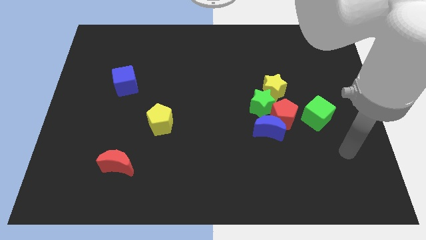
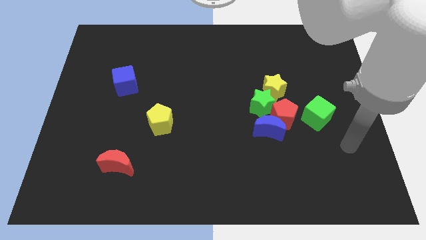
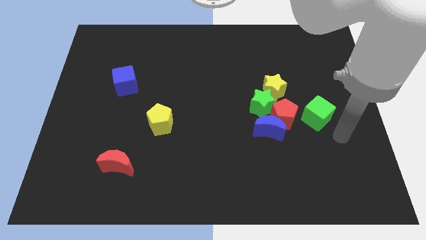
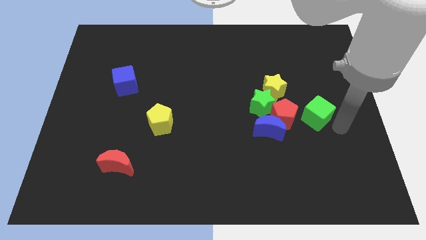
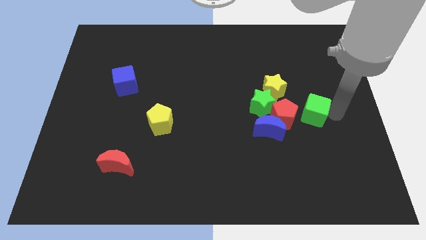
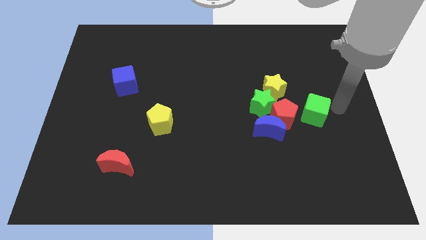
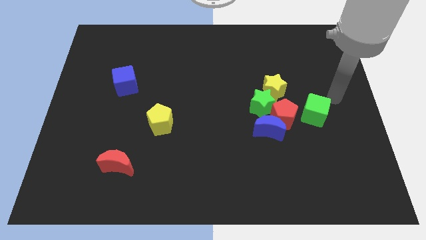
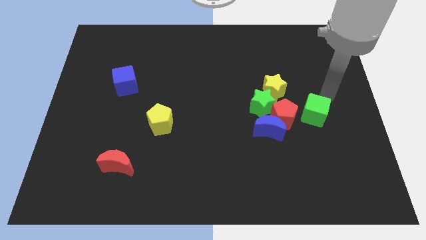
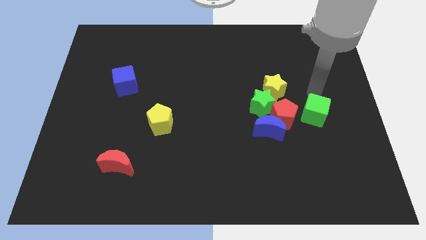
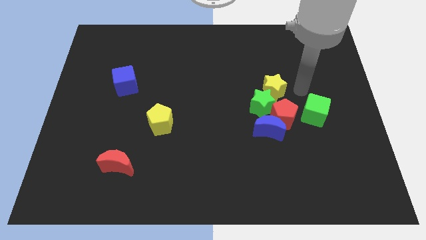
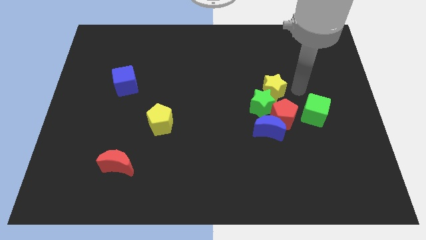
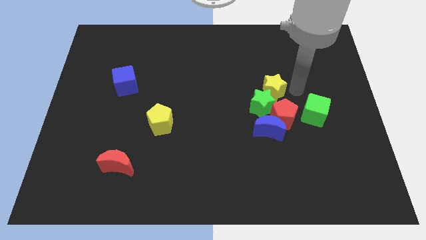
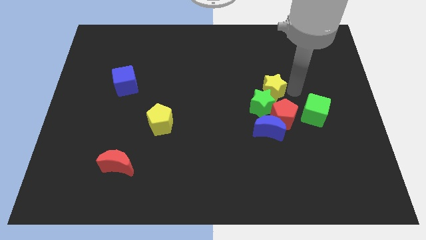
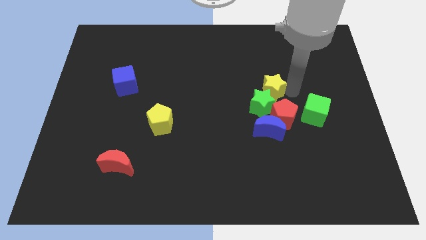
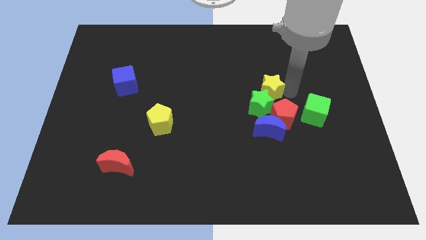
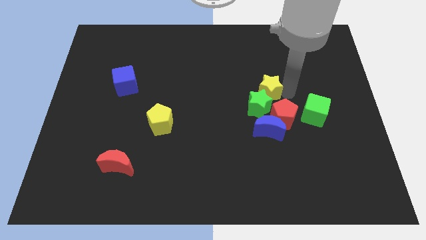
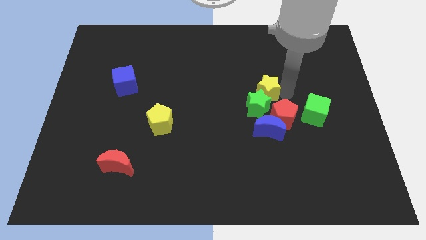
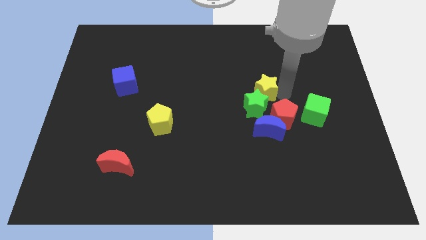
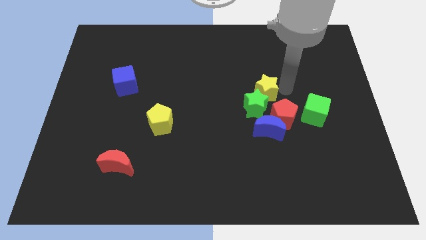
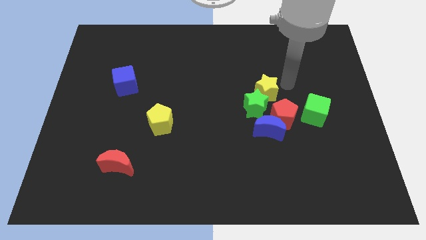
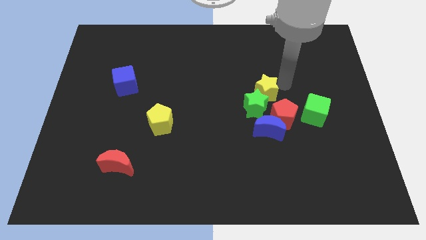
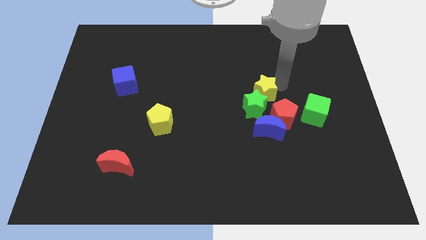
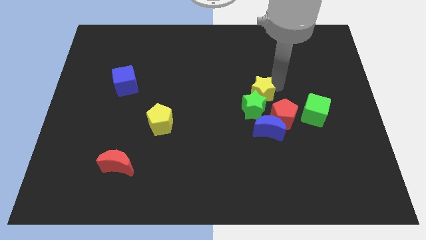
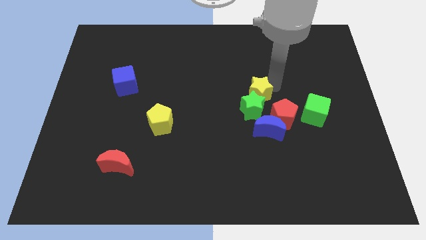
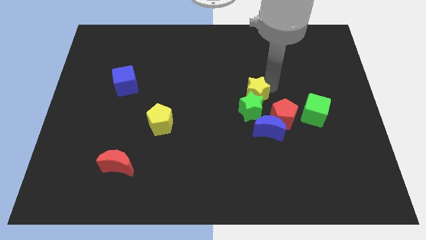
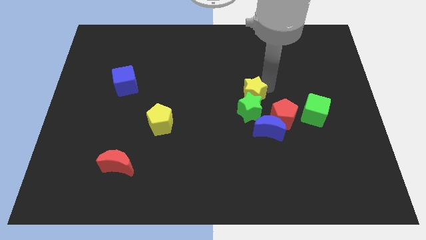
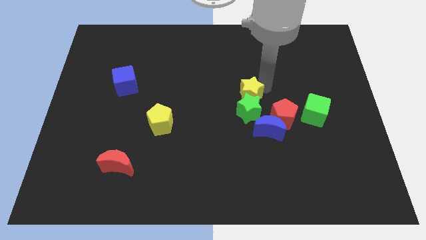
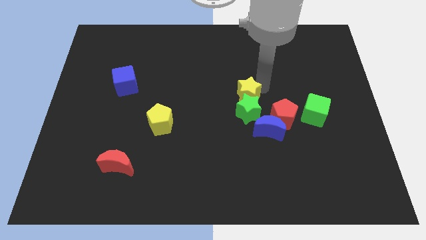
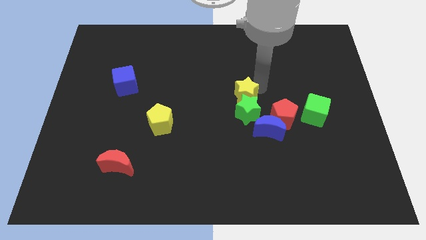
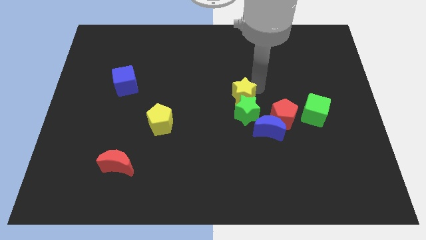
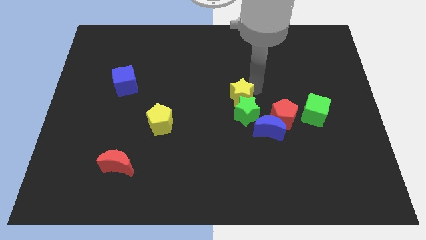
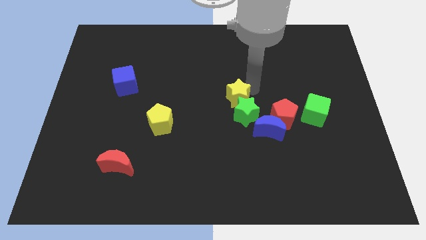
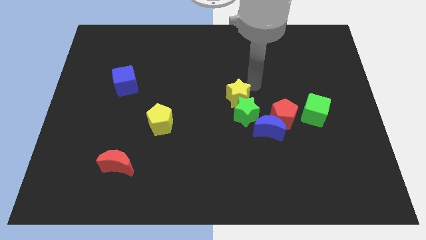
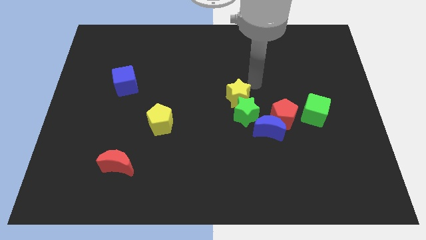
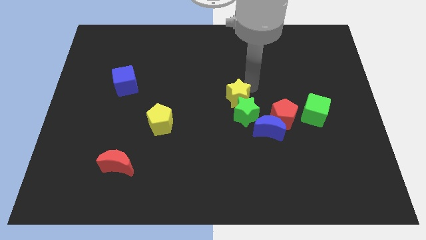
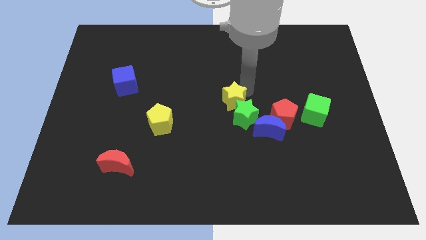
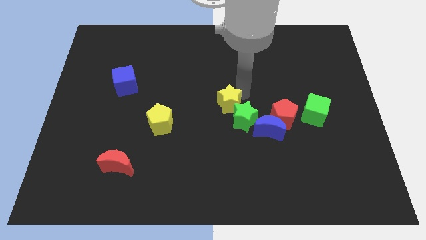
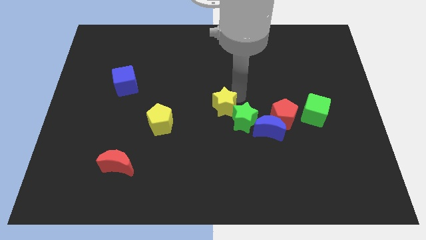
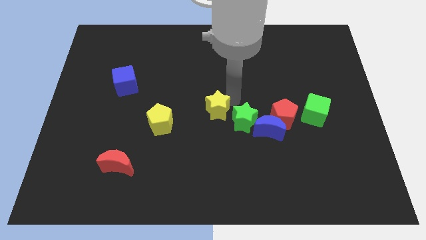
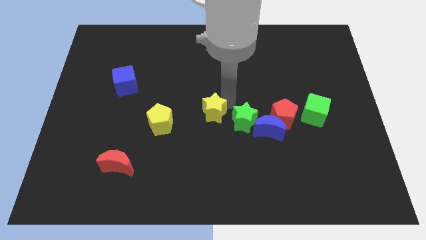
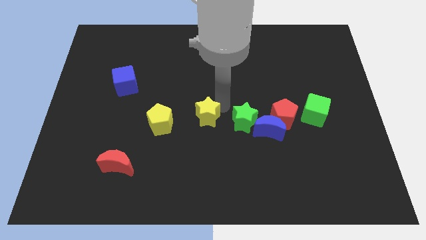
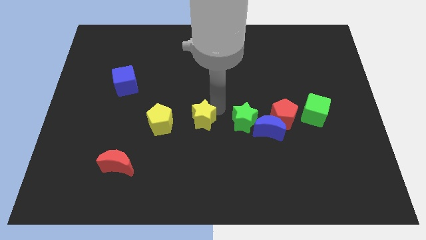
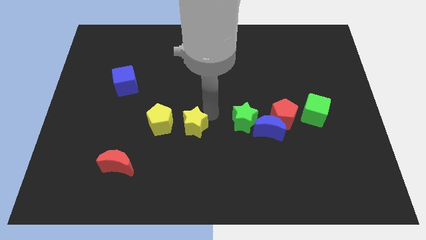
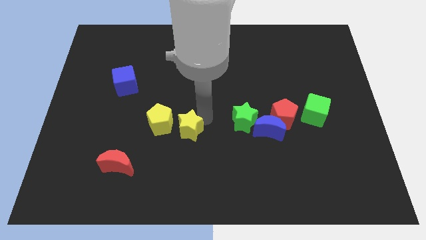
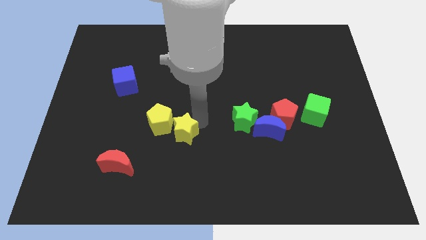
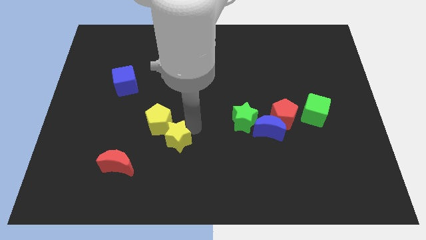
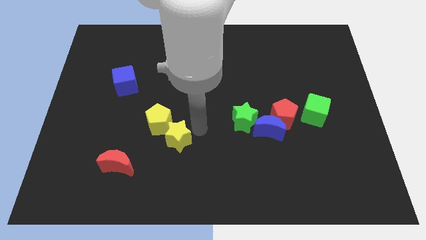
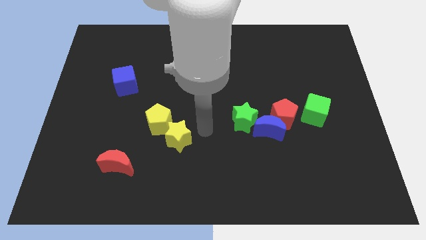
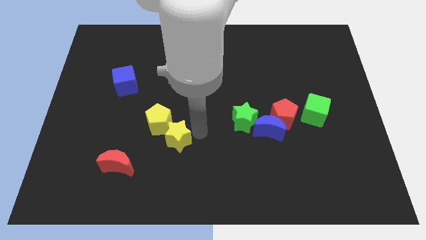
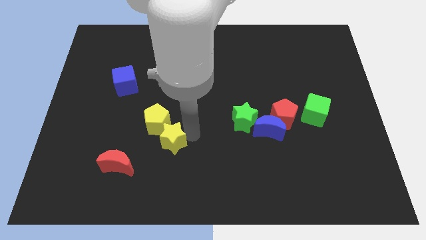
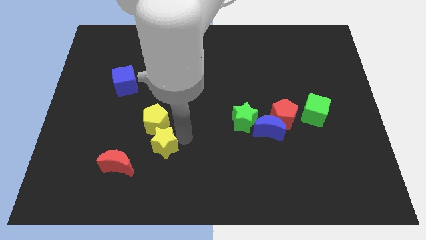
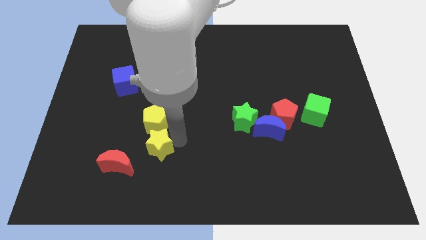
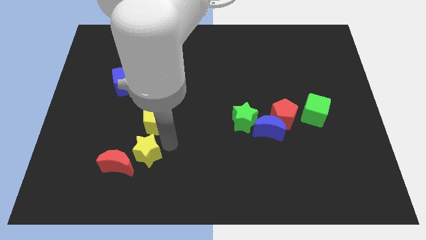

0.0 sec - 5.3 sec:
move the yellow star to the red moon

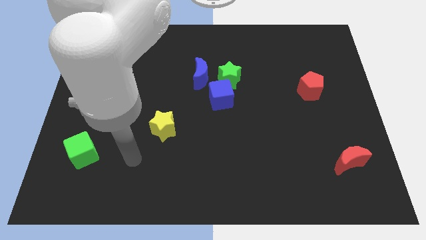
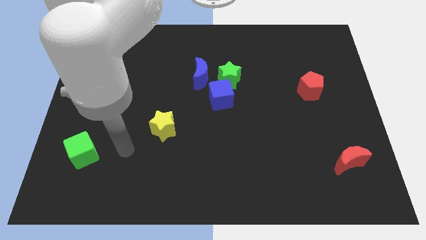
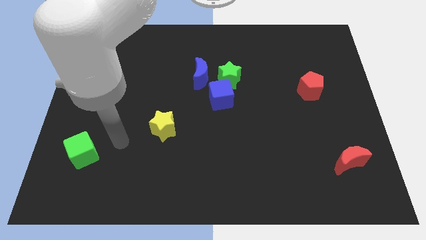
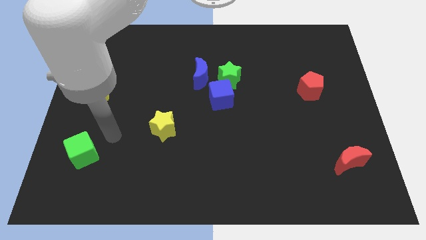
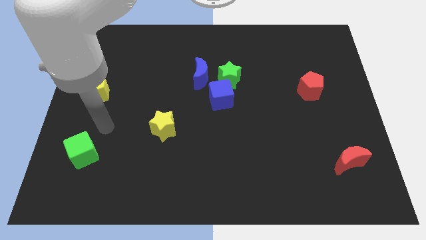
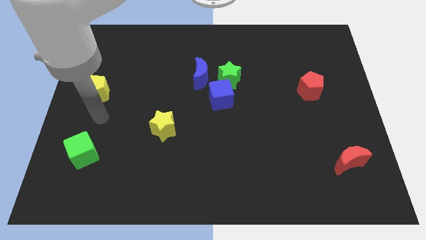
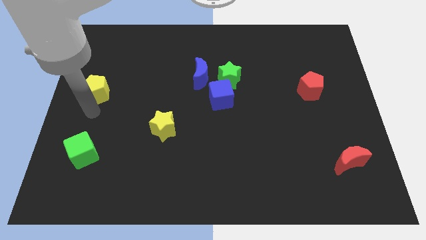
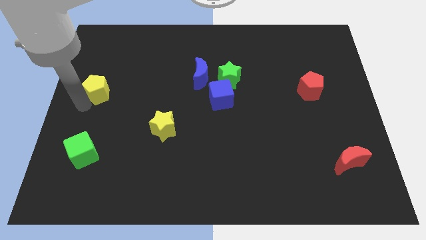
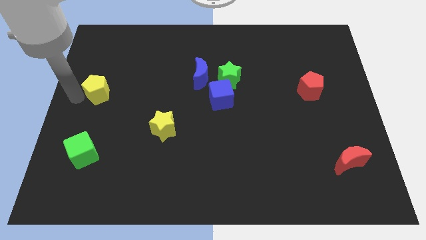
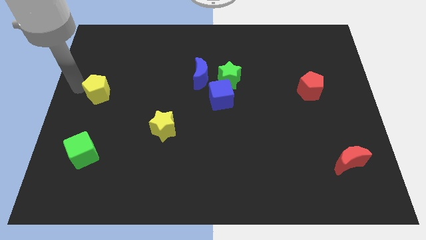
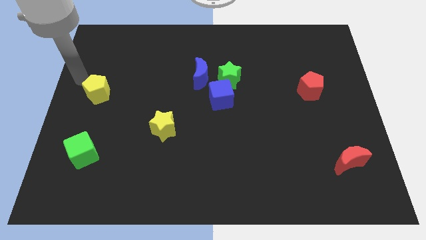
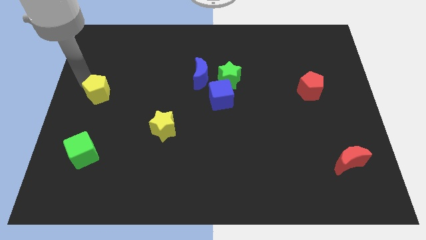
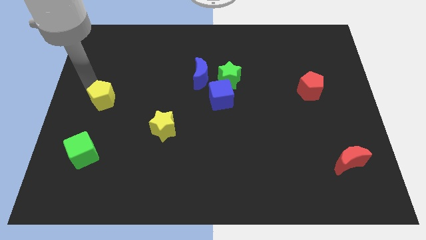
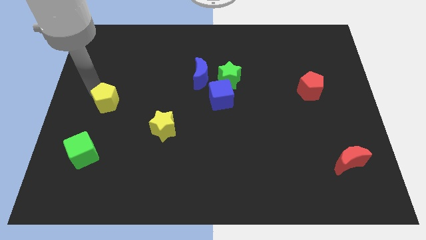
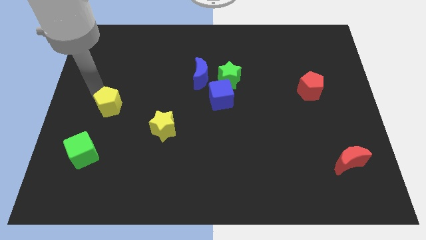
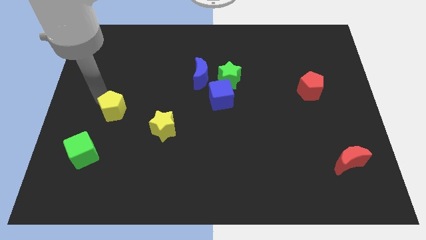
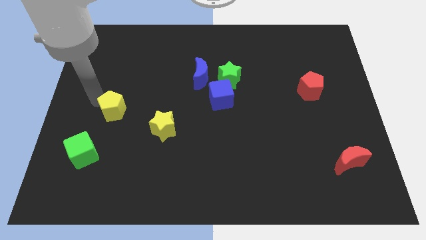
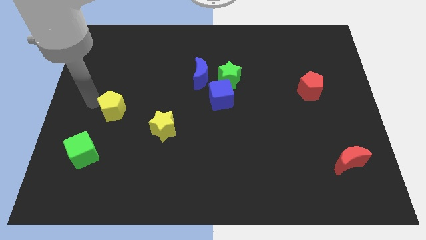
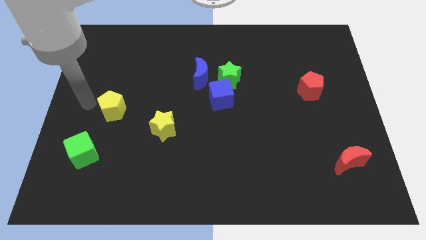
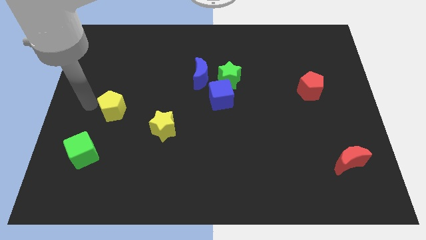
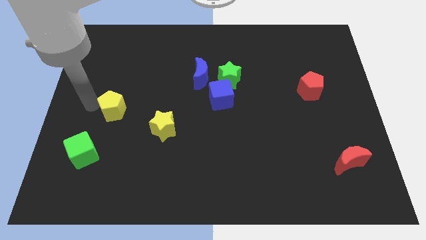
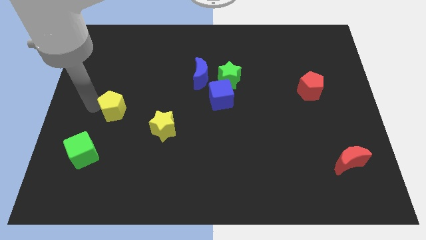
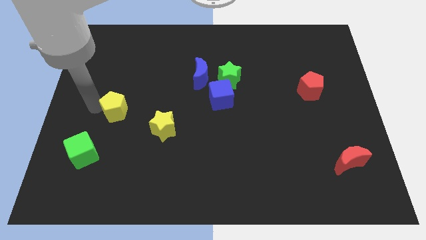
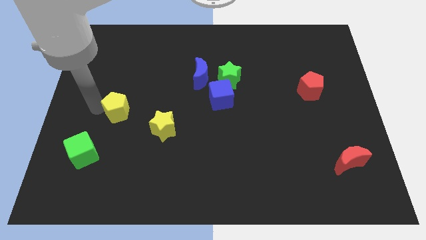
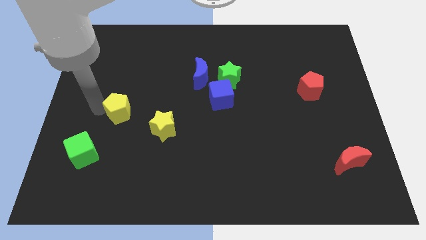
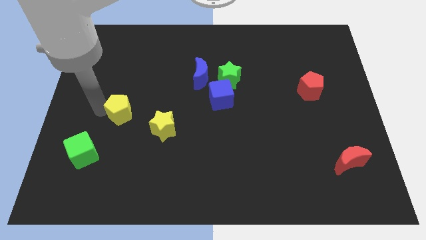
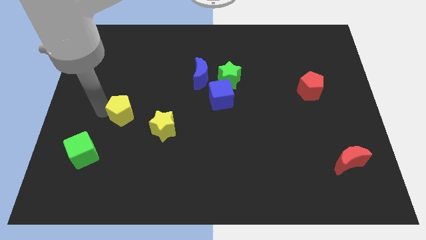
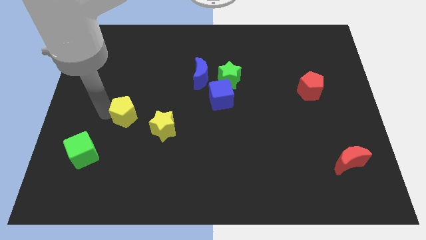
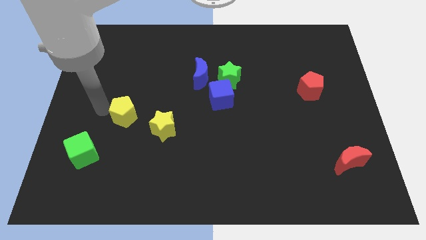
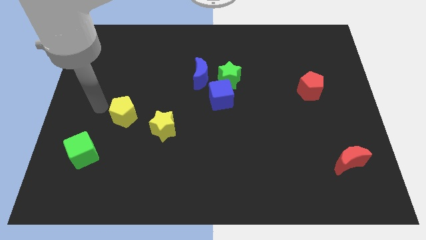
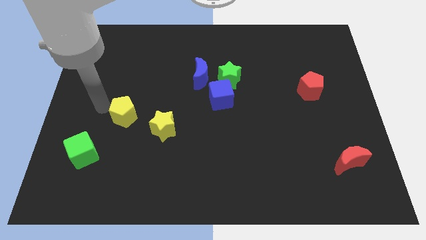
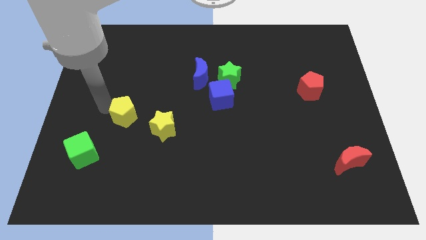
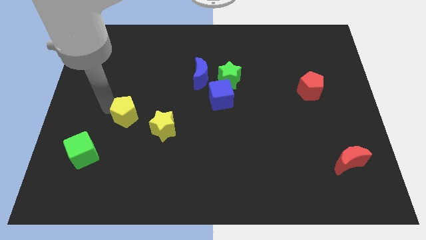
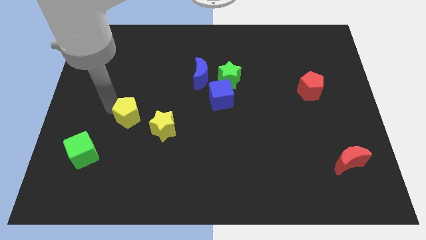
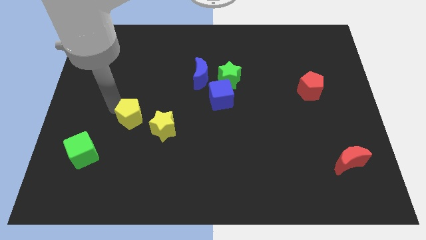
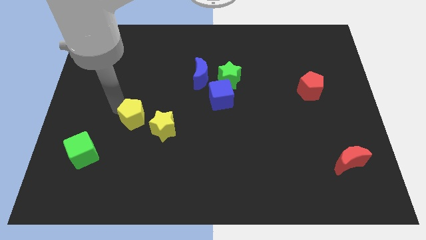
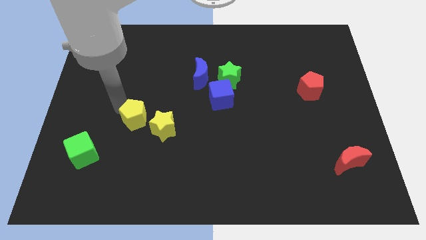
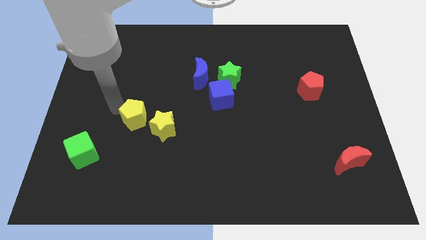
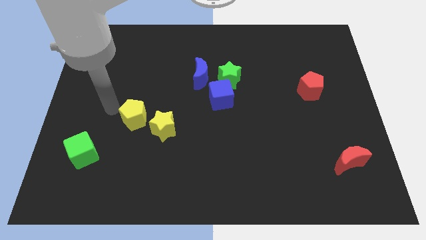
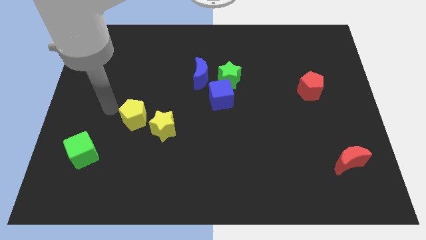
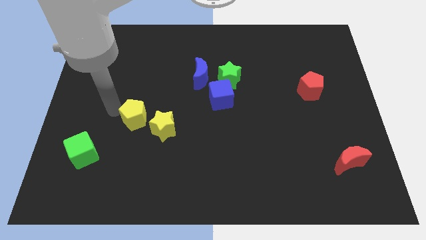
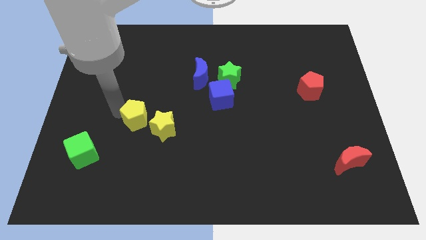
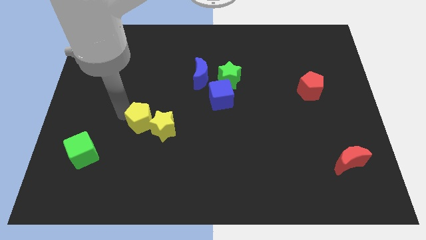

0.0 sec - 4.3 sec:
push the yellow pentagon next to the yellow star
